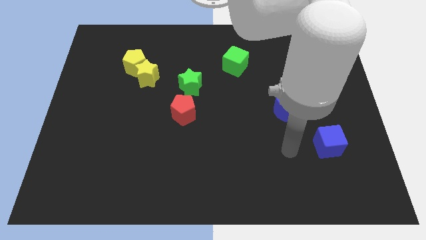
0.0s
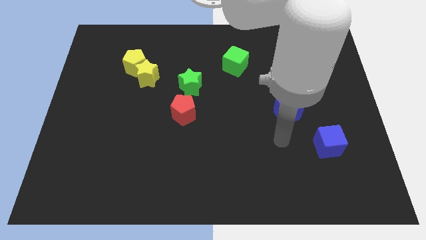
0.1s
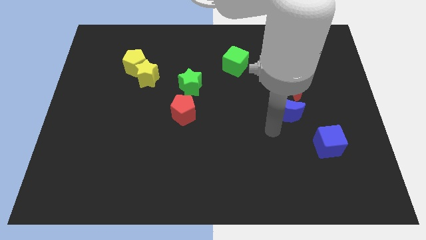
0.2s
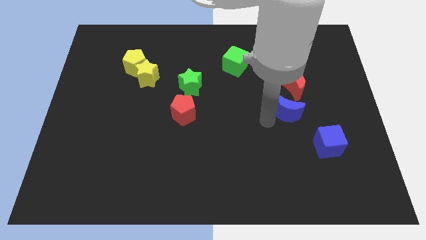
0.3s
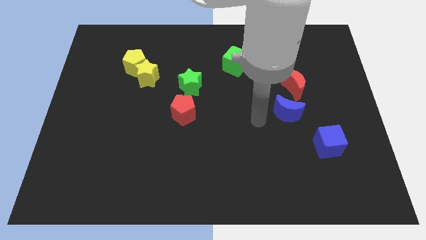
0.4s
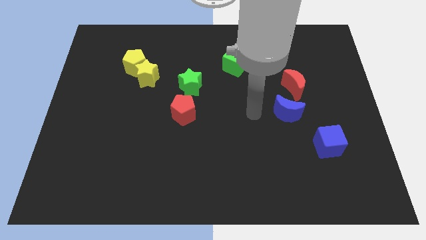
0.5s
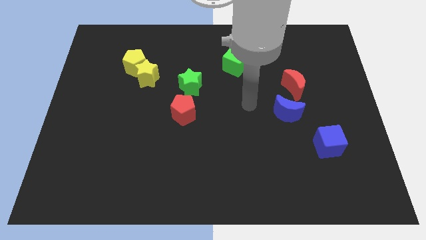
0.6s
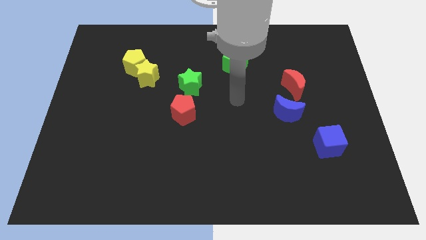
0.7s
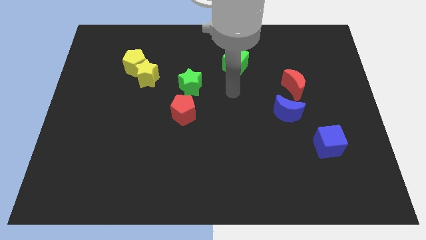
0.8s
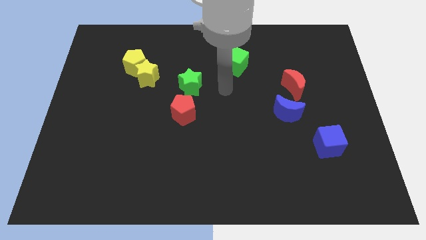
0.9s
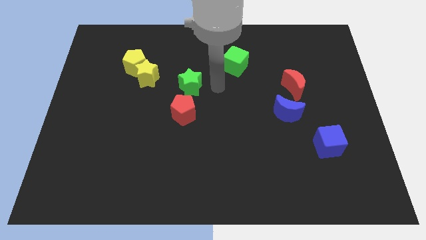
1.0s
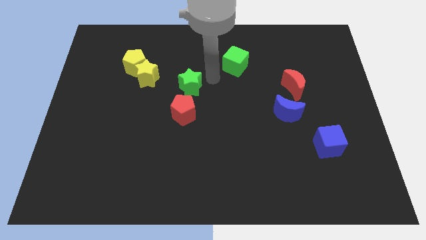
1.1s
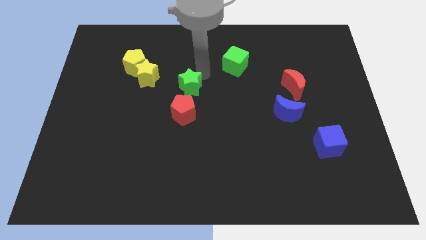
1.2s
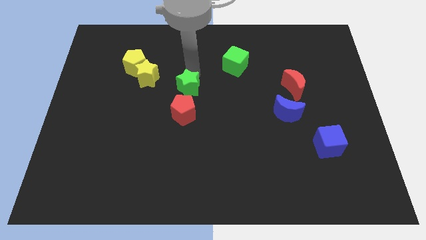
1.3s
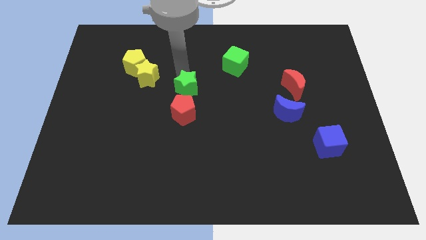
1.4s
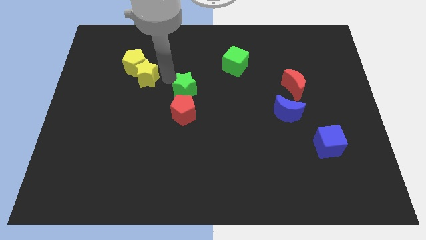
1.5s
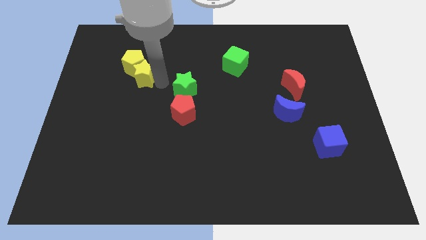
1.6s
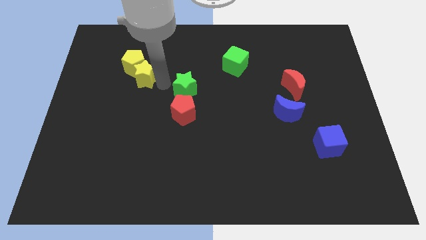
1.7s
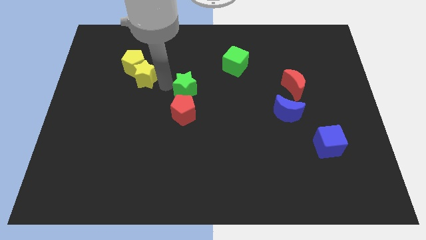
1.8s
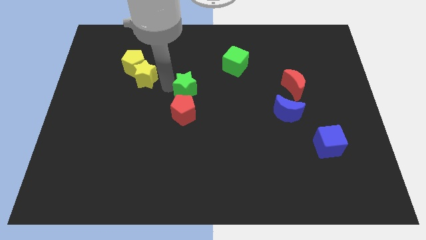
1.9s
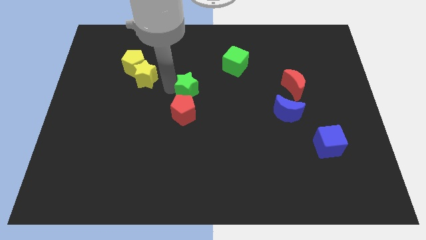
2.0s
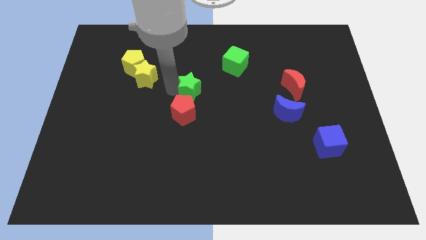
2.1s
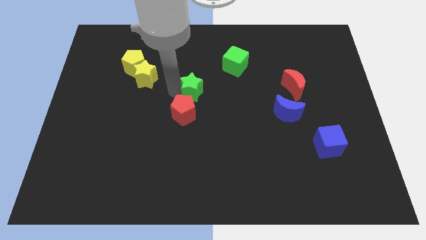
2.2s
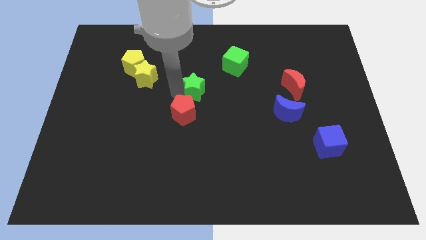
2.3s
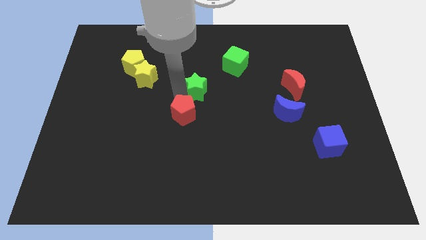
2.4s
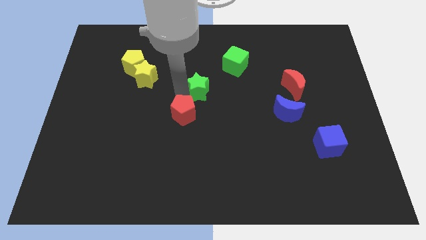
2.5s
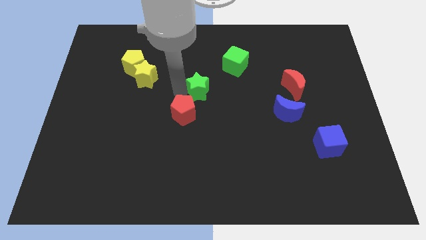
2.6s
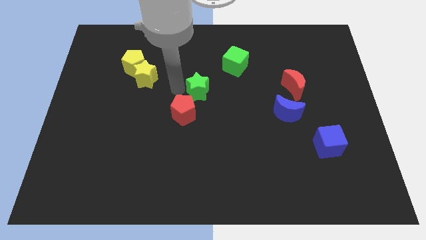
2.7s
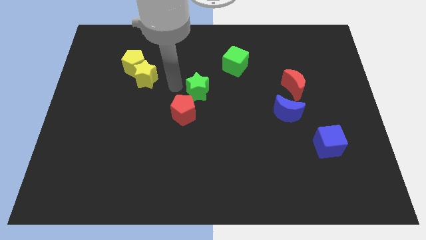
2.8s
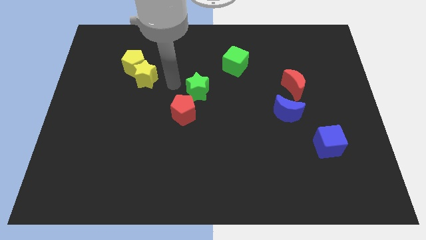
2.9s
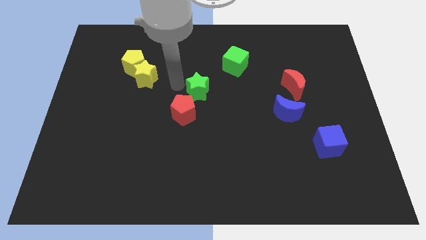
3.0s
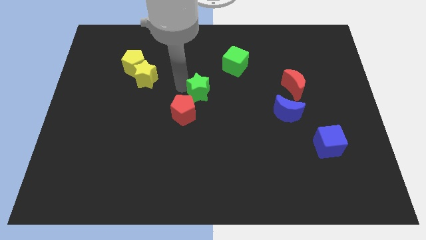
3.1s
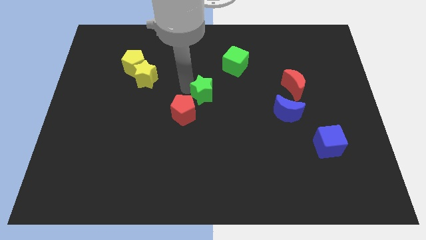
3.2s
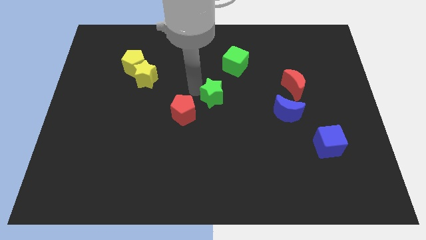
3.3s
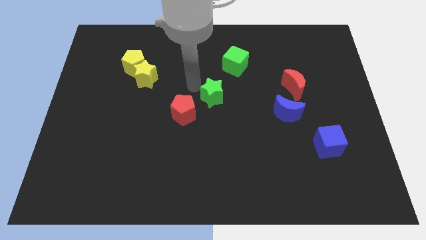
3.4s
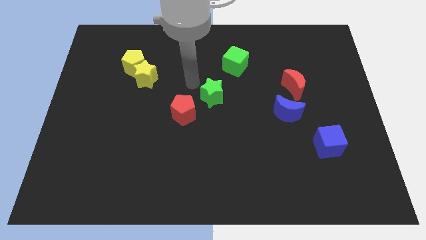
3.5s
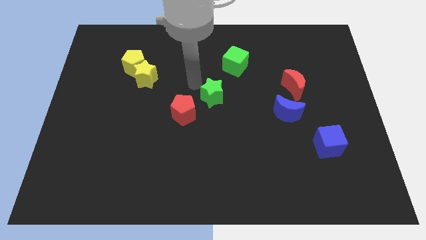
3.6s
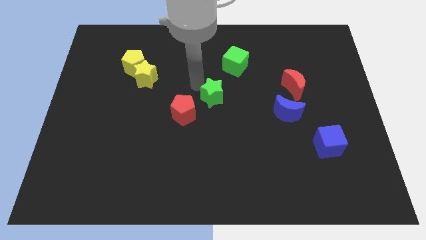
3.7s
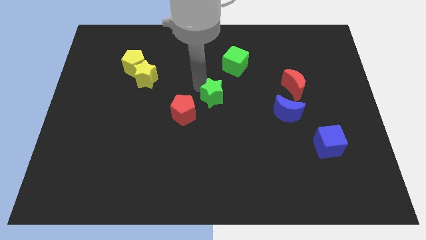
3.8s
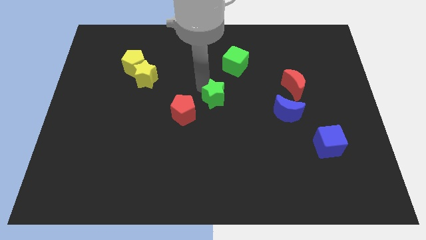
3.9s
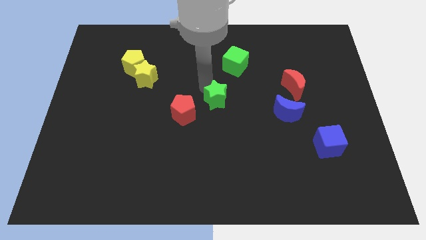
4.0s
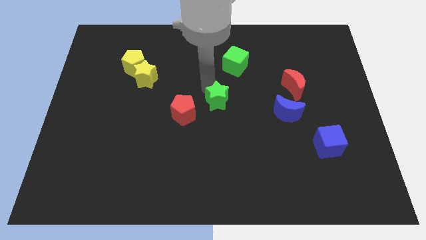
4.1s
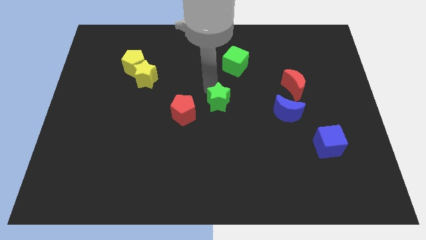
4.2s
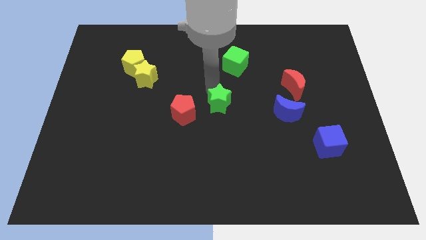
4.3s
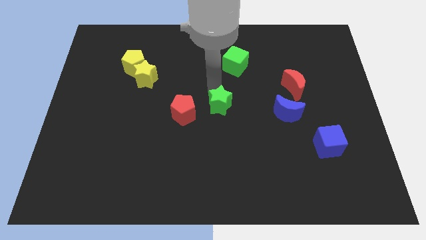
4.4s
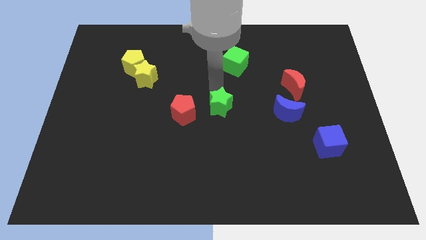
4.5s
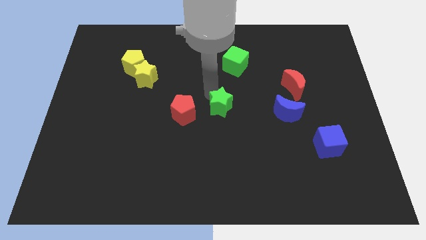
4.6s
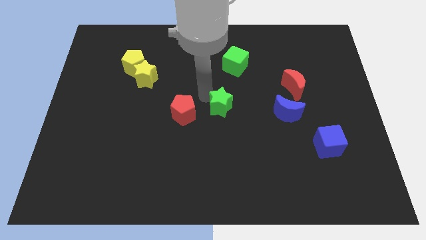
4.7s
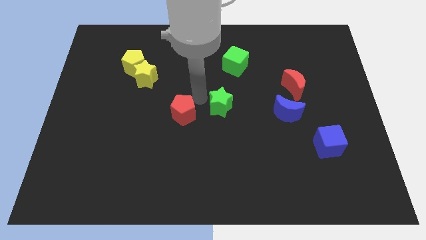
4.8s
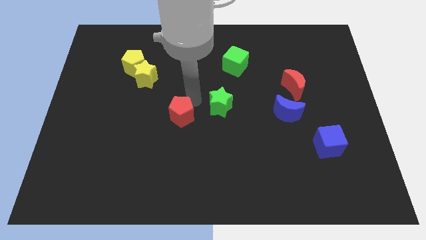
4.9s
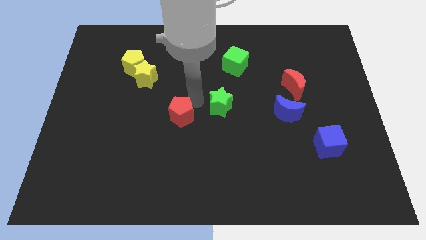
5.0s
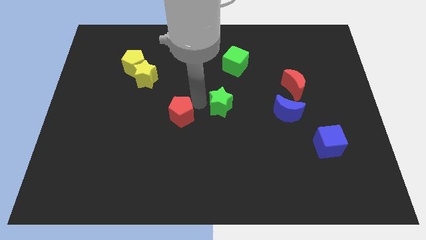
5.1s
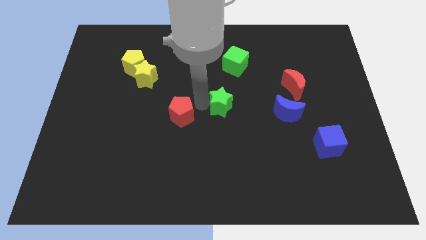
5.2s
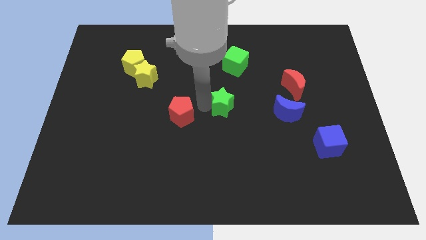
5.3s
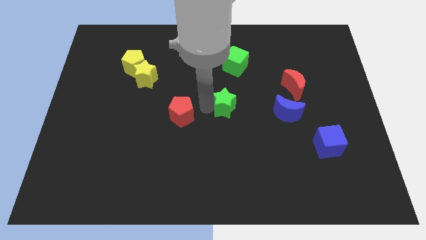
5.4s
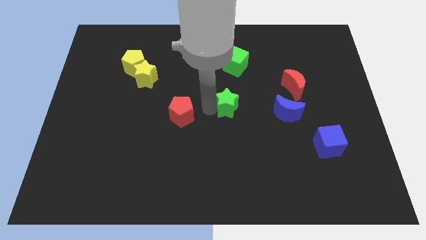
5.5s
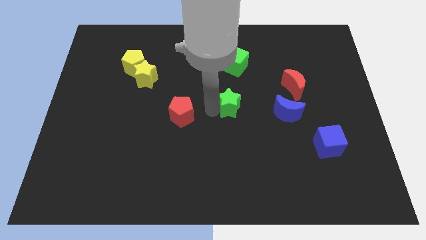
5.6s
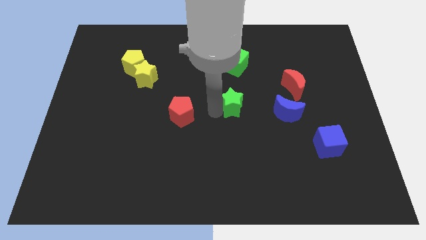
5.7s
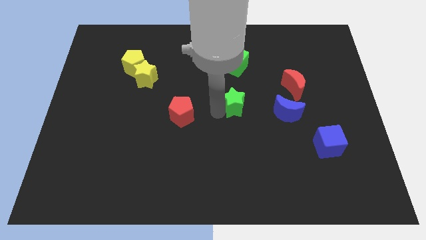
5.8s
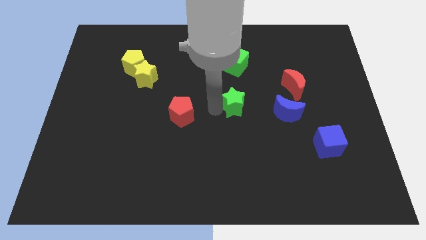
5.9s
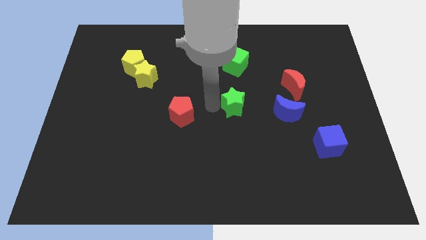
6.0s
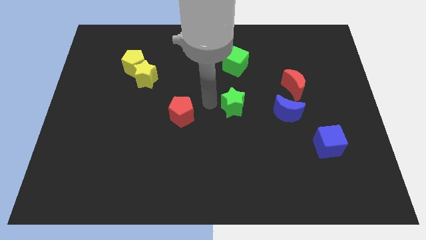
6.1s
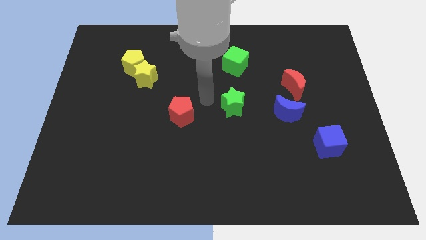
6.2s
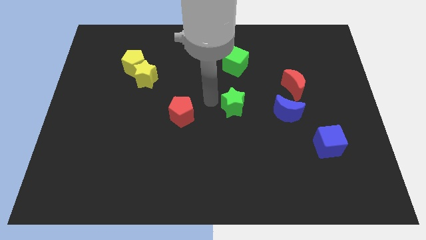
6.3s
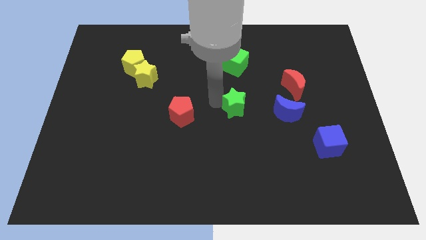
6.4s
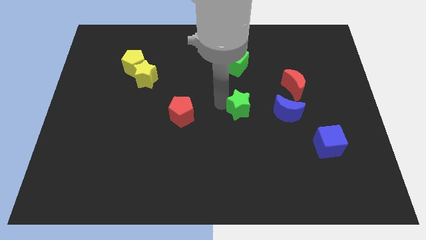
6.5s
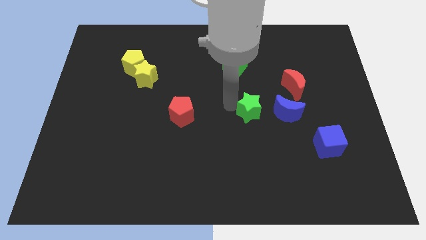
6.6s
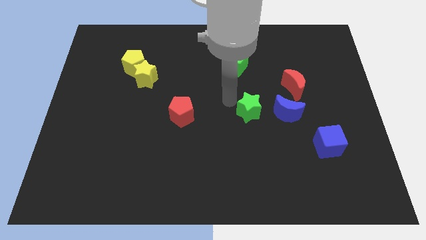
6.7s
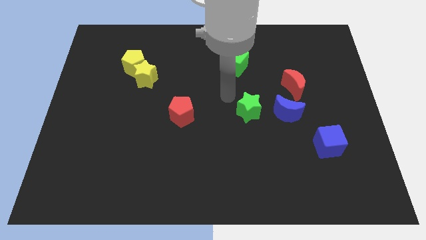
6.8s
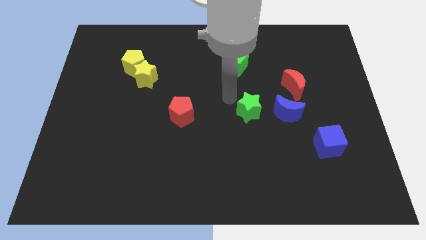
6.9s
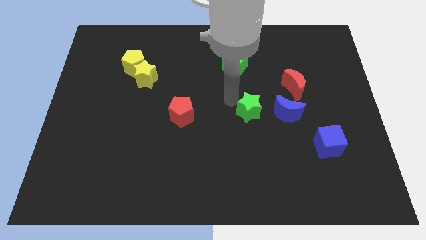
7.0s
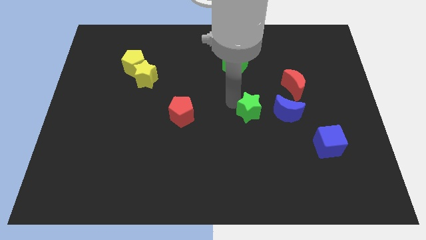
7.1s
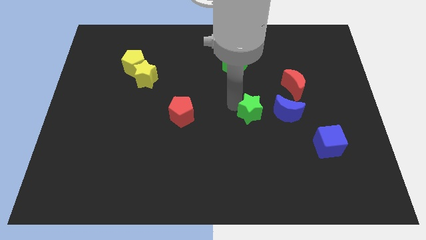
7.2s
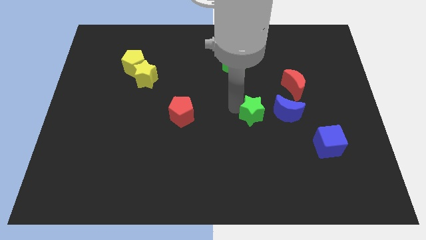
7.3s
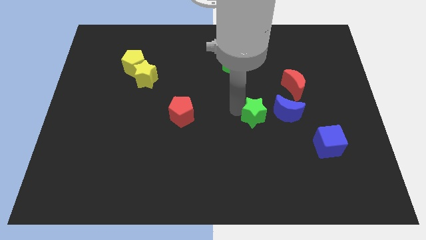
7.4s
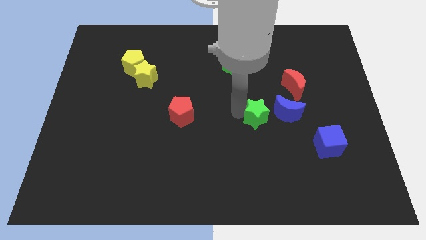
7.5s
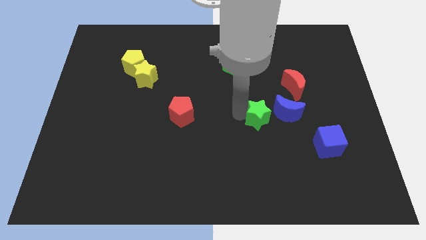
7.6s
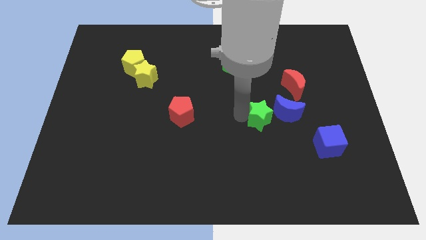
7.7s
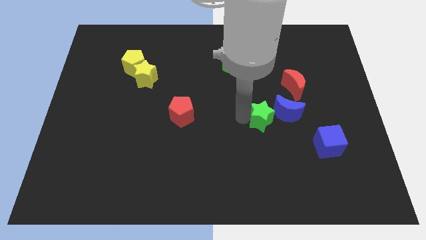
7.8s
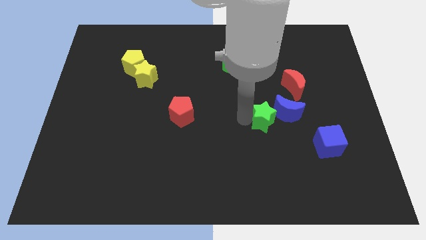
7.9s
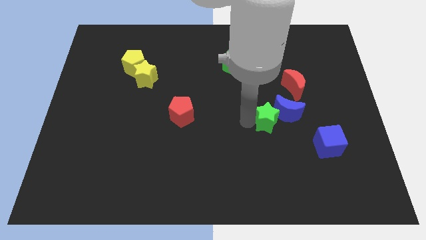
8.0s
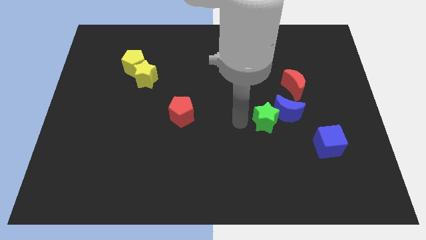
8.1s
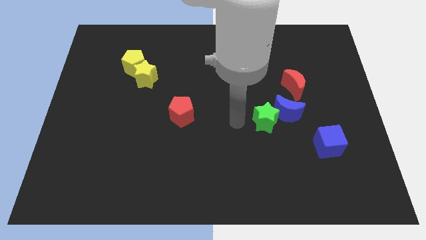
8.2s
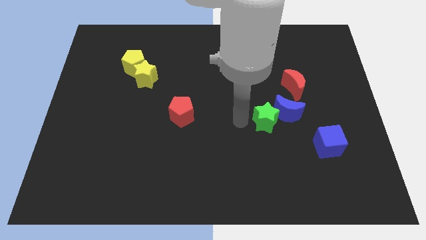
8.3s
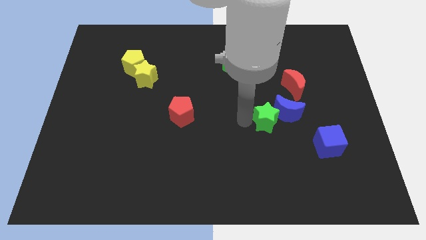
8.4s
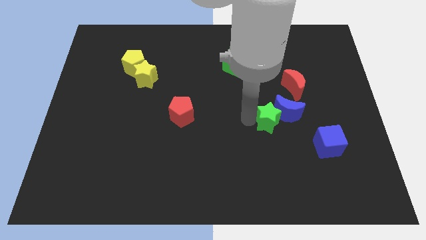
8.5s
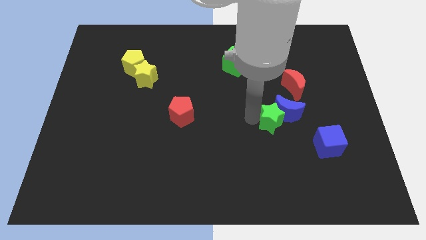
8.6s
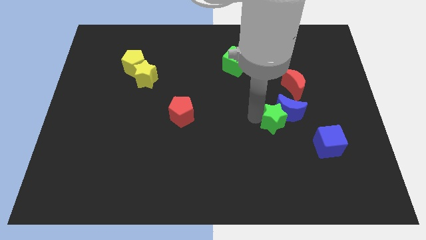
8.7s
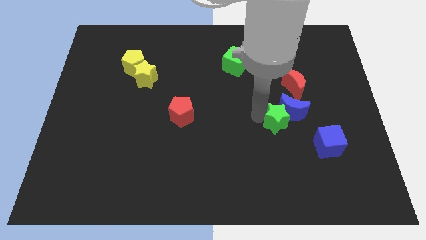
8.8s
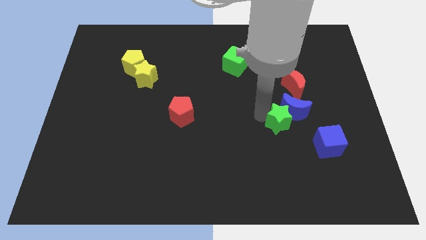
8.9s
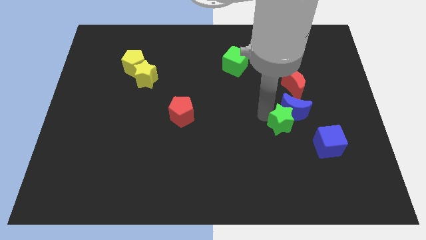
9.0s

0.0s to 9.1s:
slide the green star to the bottom side of the red moon
